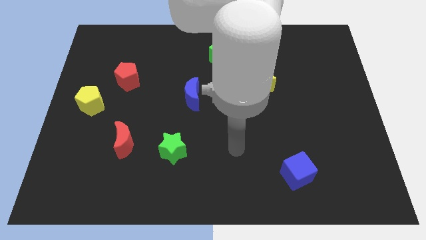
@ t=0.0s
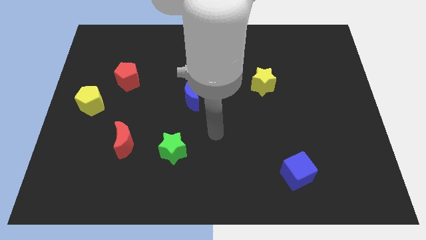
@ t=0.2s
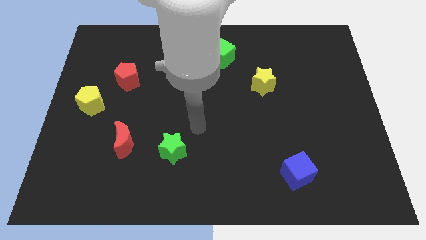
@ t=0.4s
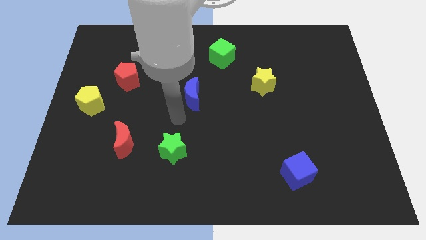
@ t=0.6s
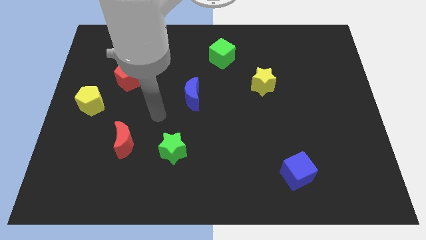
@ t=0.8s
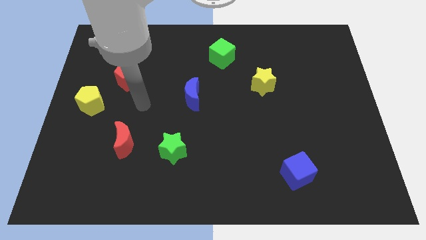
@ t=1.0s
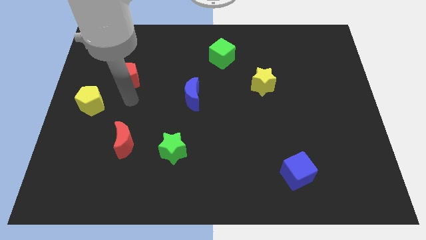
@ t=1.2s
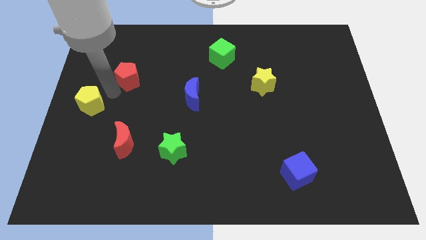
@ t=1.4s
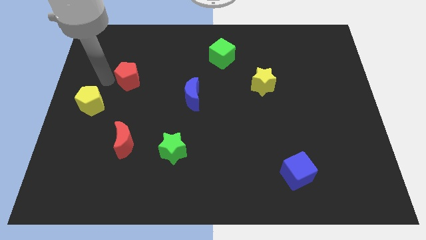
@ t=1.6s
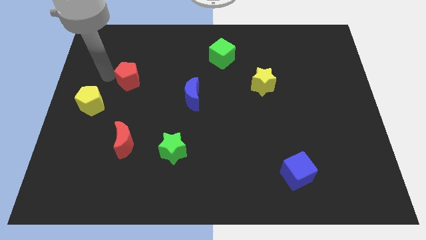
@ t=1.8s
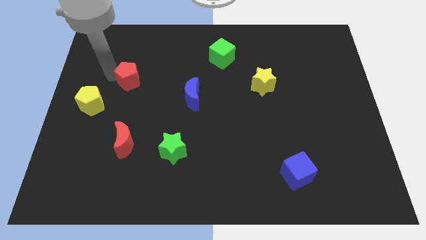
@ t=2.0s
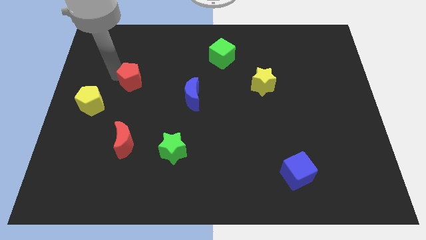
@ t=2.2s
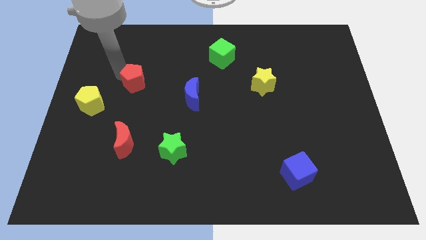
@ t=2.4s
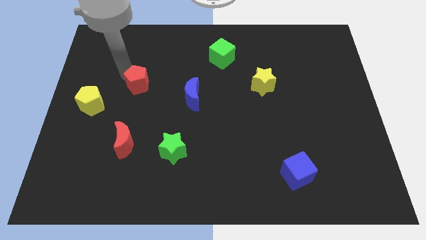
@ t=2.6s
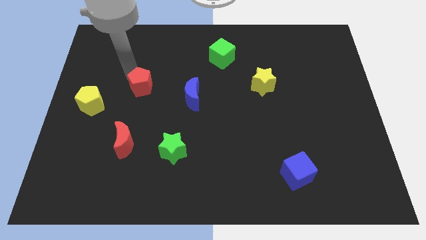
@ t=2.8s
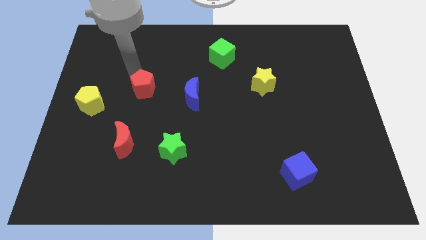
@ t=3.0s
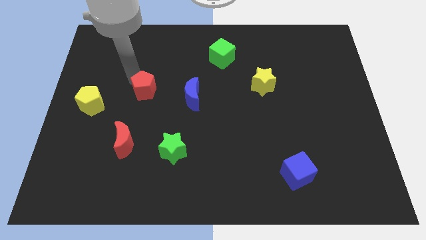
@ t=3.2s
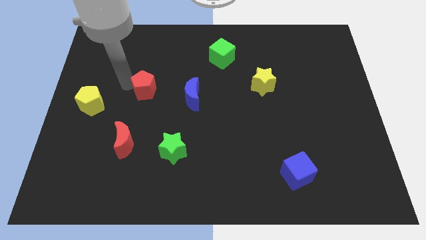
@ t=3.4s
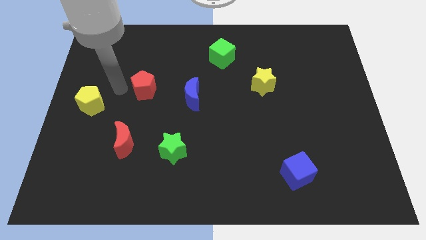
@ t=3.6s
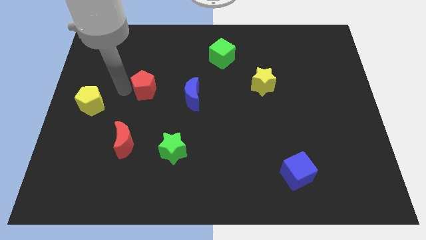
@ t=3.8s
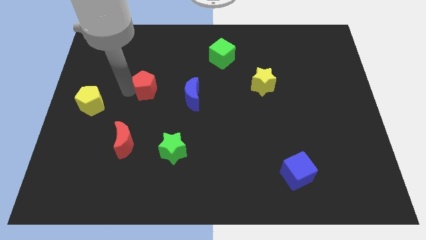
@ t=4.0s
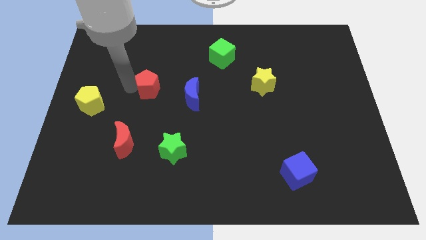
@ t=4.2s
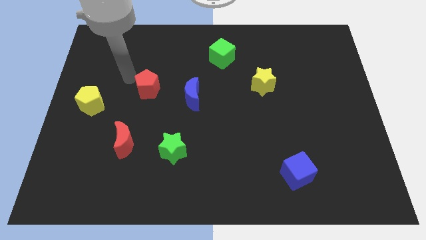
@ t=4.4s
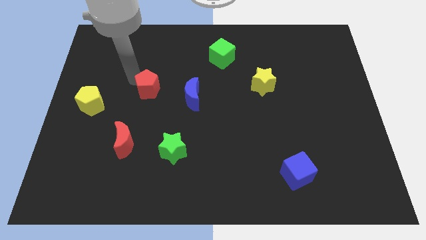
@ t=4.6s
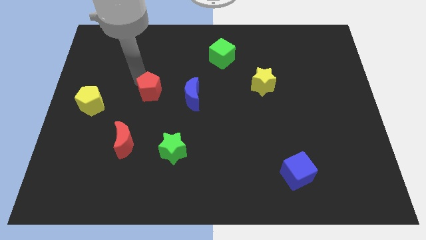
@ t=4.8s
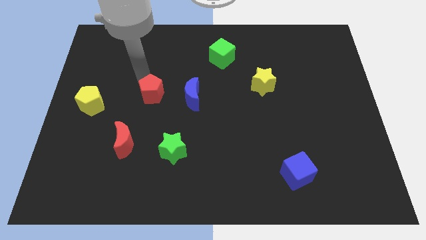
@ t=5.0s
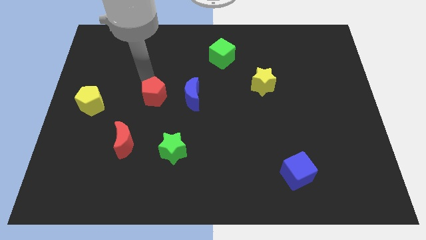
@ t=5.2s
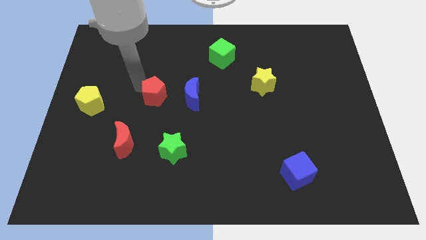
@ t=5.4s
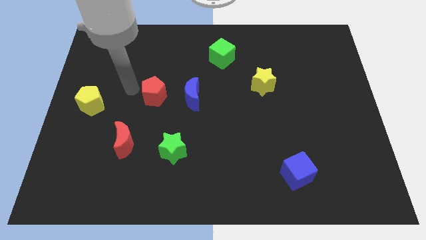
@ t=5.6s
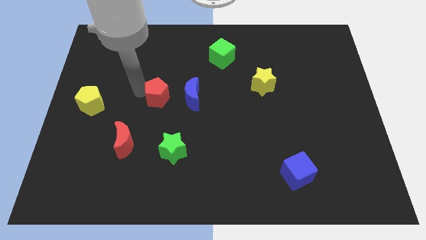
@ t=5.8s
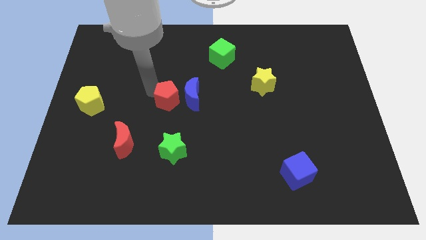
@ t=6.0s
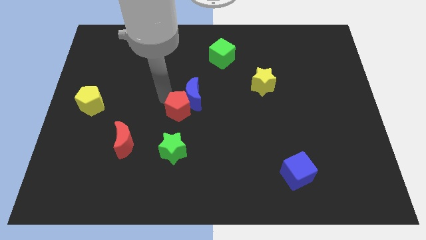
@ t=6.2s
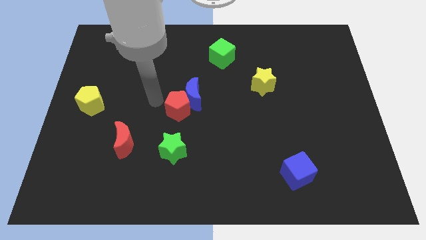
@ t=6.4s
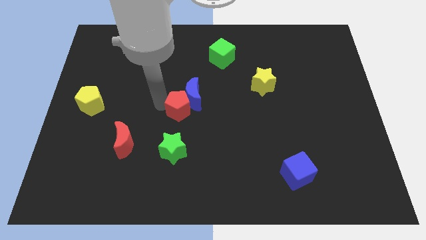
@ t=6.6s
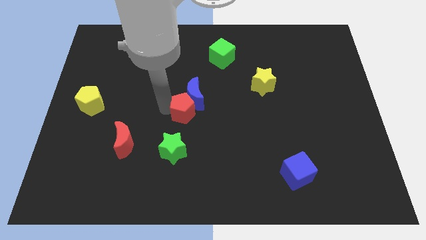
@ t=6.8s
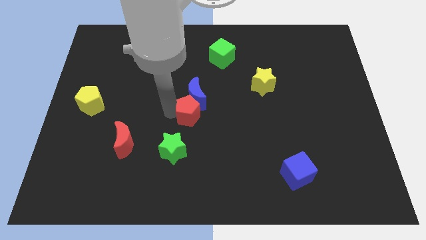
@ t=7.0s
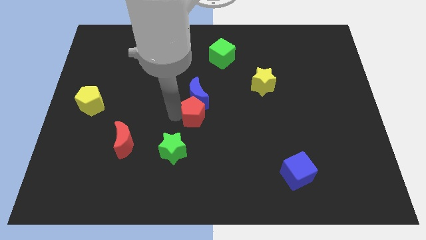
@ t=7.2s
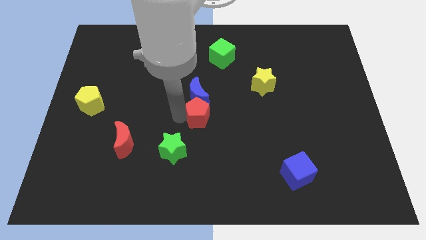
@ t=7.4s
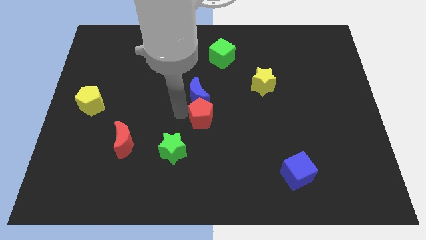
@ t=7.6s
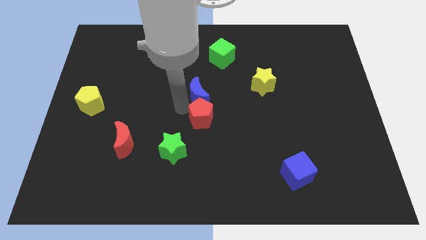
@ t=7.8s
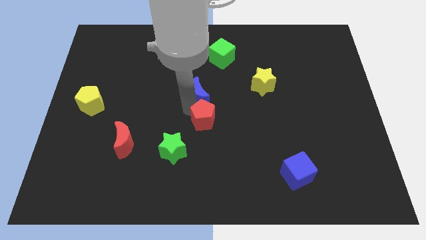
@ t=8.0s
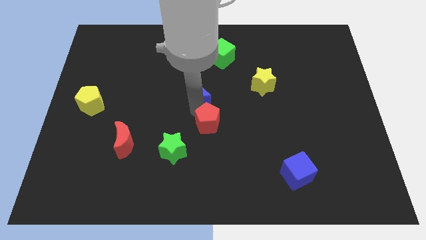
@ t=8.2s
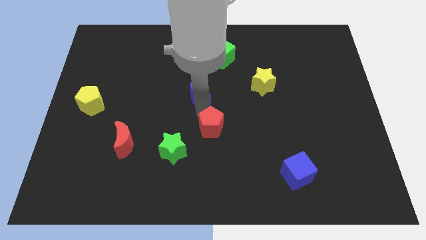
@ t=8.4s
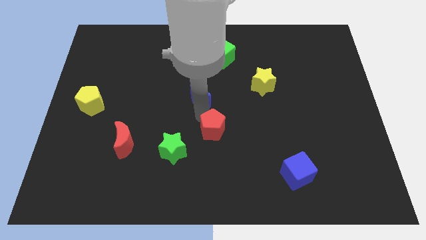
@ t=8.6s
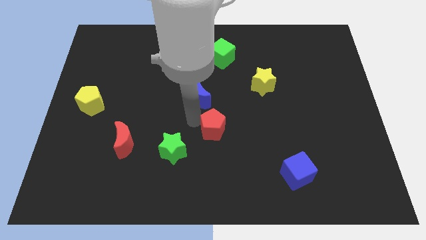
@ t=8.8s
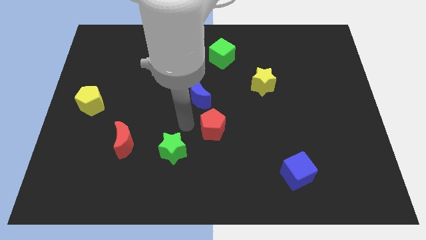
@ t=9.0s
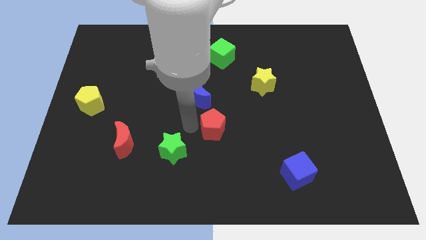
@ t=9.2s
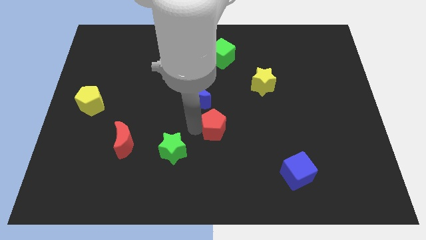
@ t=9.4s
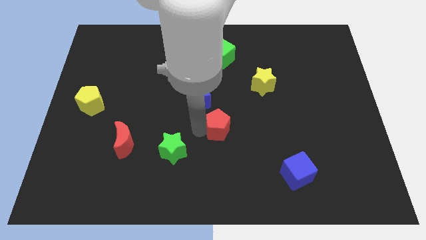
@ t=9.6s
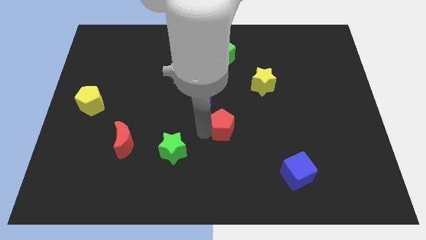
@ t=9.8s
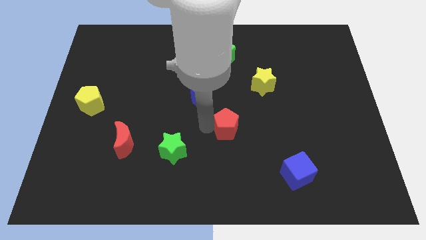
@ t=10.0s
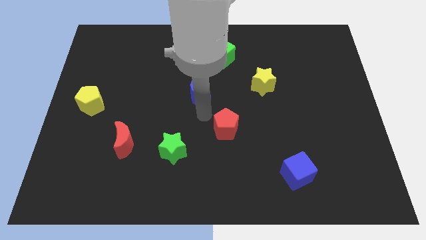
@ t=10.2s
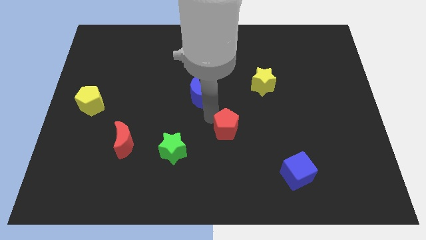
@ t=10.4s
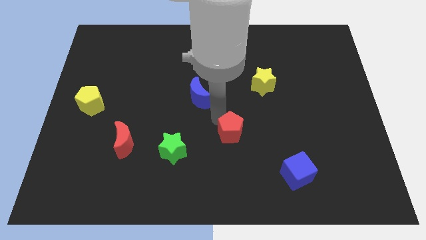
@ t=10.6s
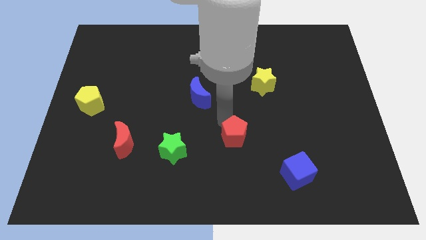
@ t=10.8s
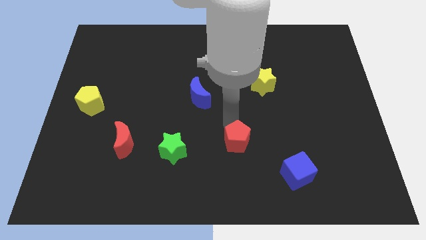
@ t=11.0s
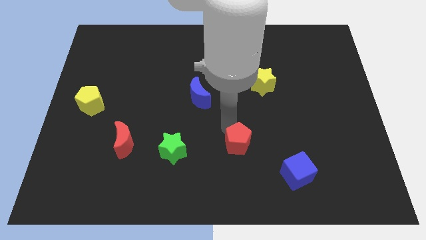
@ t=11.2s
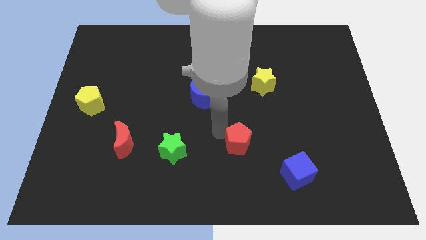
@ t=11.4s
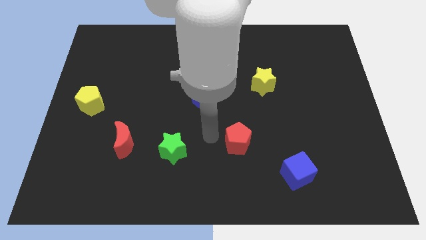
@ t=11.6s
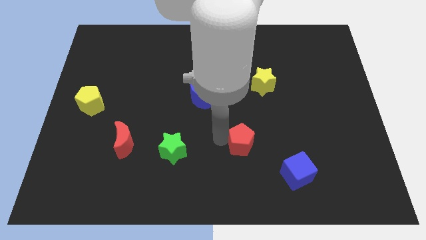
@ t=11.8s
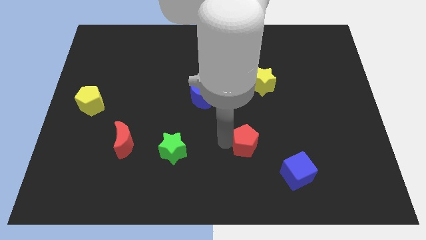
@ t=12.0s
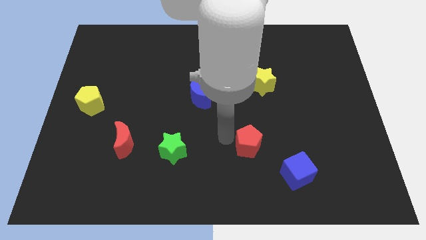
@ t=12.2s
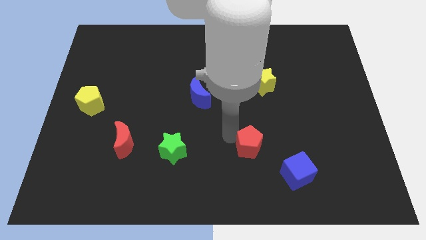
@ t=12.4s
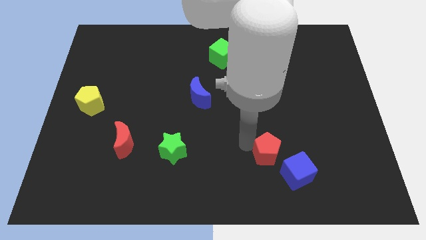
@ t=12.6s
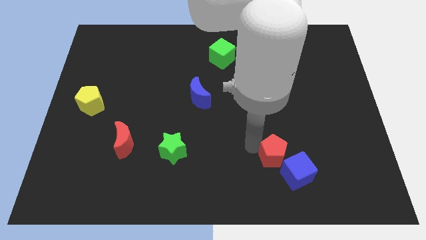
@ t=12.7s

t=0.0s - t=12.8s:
push the red pentagon towards the blue cube

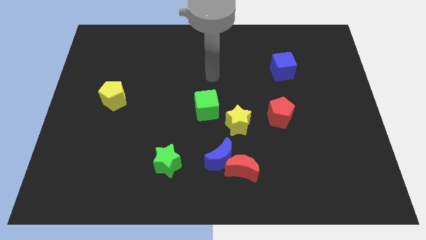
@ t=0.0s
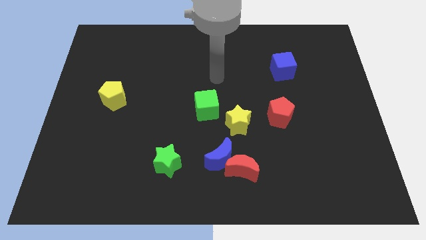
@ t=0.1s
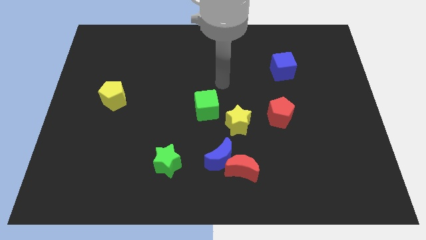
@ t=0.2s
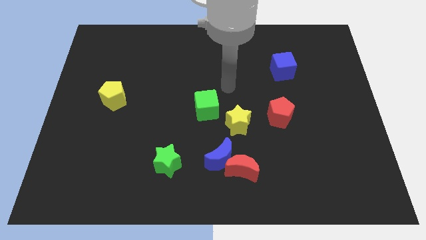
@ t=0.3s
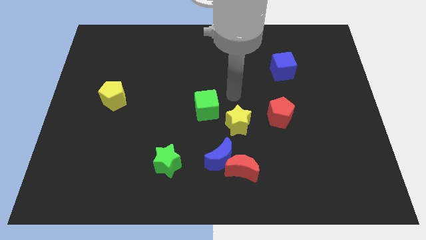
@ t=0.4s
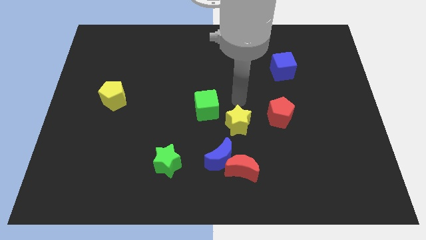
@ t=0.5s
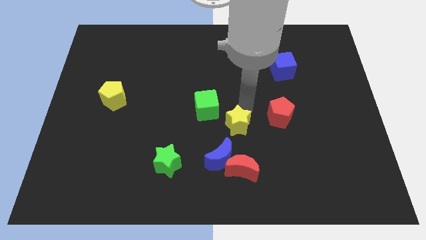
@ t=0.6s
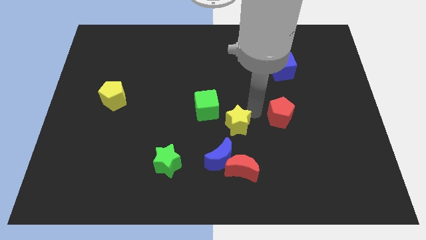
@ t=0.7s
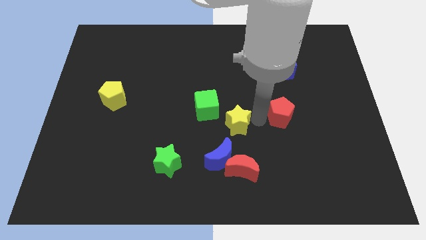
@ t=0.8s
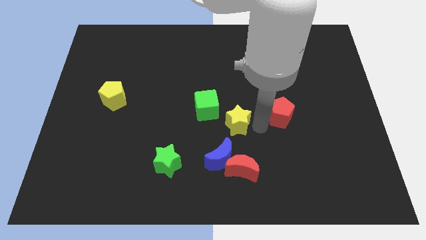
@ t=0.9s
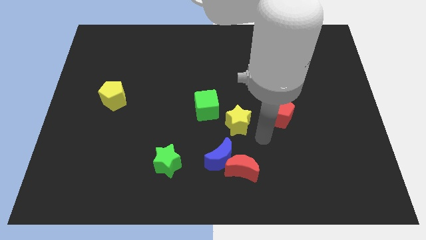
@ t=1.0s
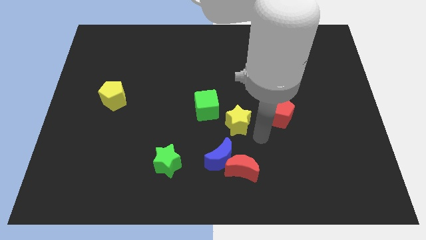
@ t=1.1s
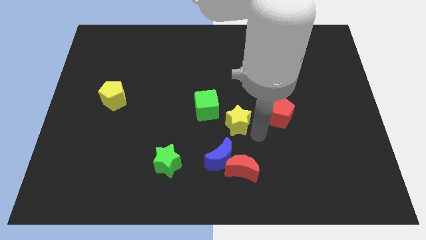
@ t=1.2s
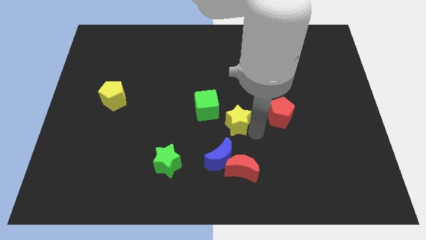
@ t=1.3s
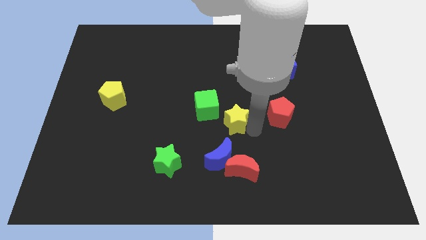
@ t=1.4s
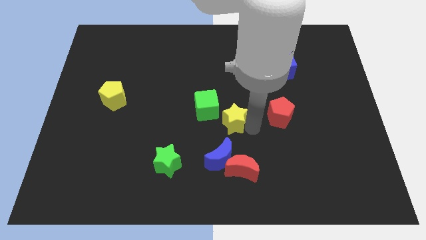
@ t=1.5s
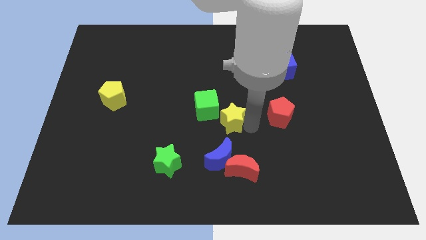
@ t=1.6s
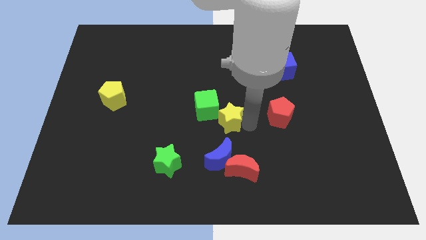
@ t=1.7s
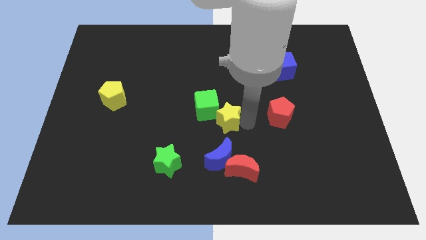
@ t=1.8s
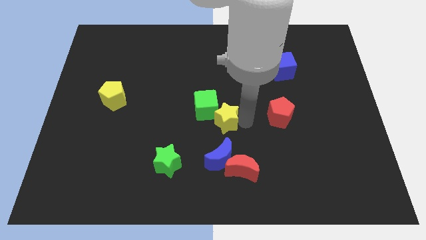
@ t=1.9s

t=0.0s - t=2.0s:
put the yellow star next to the green cube
